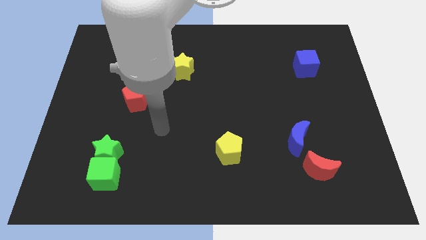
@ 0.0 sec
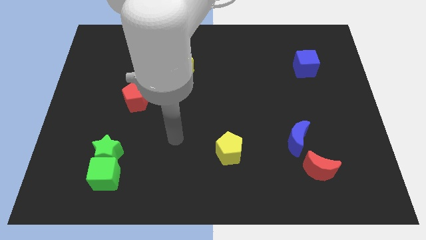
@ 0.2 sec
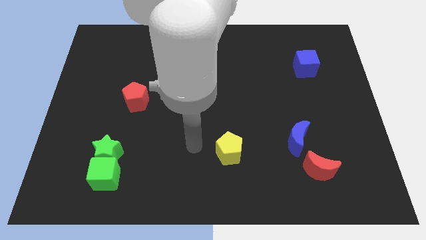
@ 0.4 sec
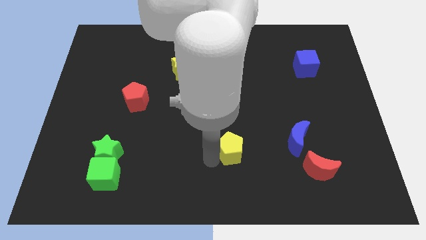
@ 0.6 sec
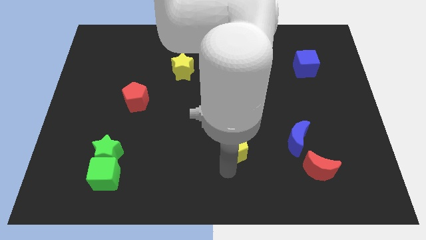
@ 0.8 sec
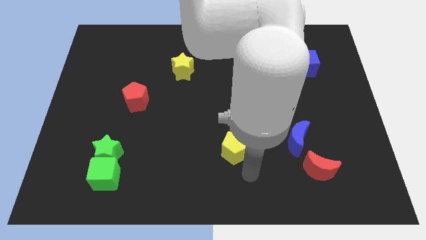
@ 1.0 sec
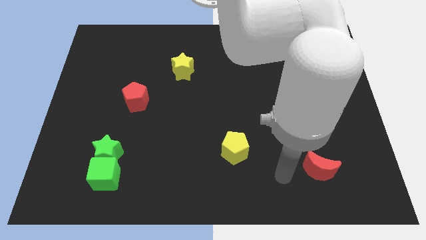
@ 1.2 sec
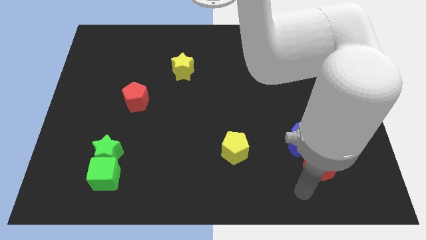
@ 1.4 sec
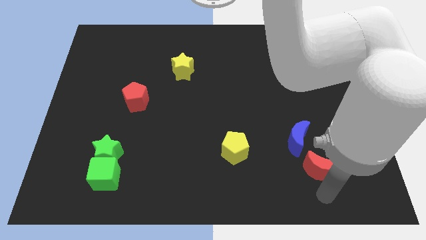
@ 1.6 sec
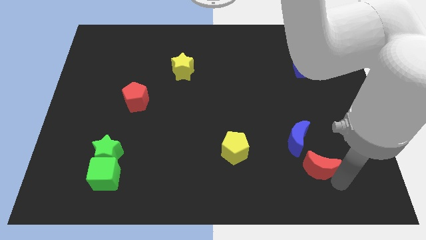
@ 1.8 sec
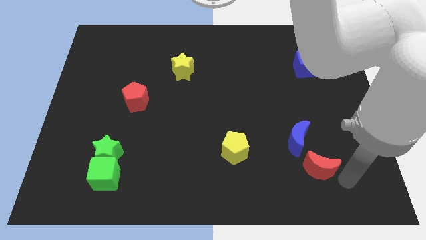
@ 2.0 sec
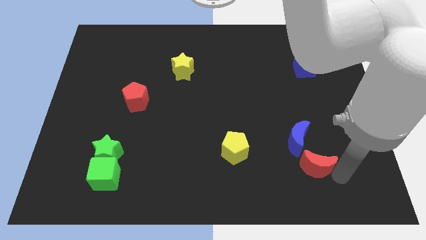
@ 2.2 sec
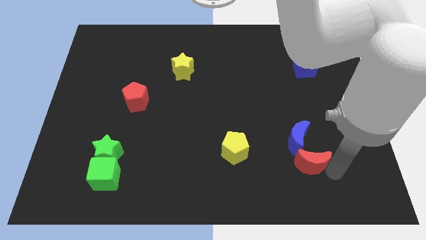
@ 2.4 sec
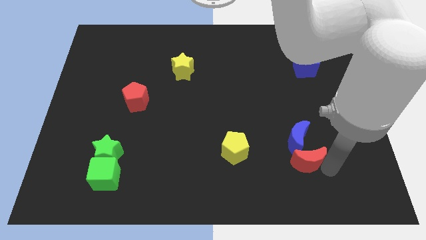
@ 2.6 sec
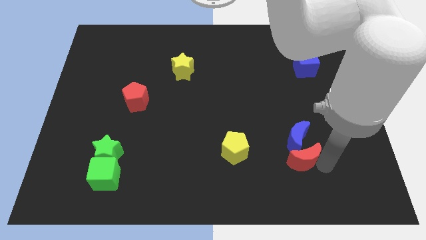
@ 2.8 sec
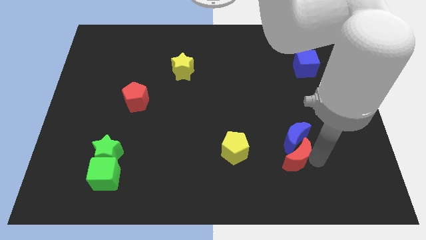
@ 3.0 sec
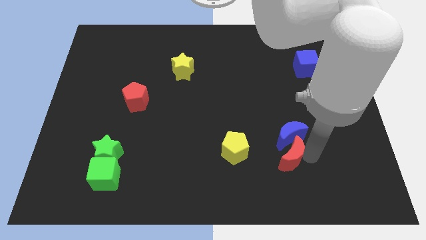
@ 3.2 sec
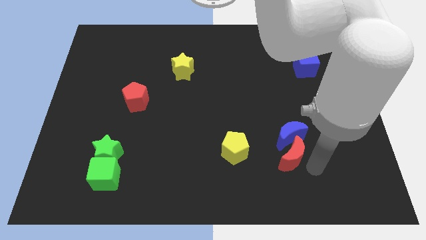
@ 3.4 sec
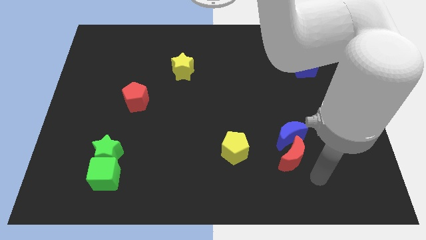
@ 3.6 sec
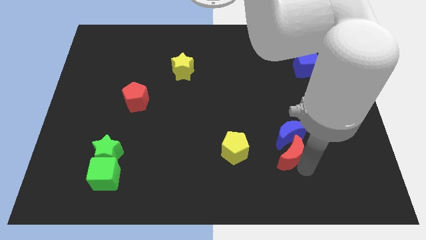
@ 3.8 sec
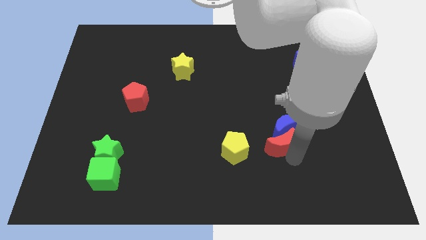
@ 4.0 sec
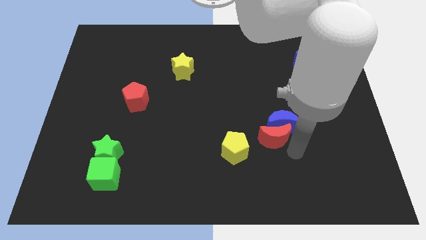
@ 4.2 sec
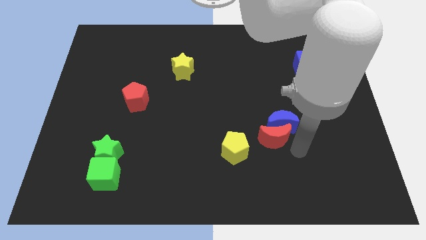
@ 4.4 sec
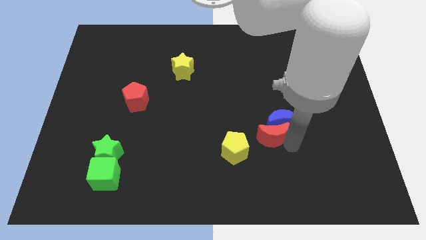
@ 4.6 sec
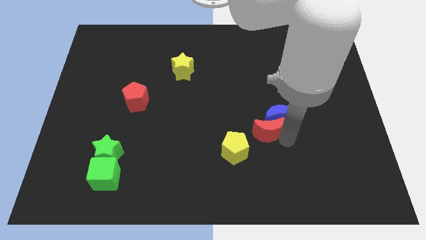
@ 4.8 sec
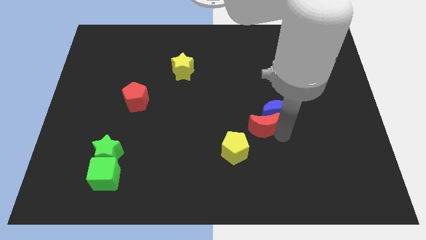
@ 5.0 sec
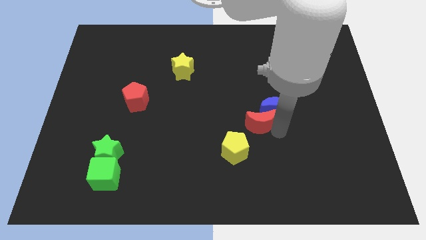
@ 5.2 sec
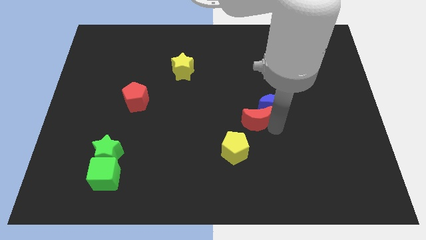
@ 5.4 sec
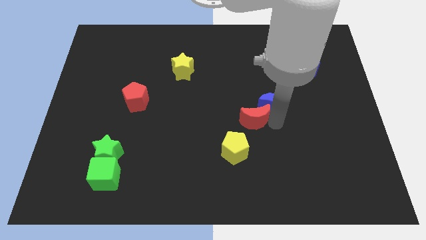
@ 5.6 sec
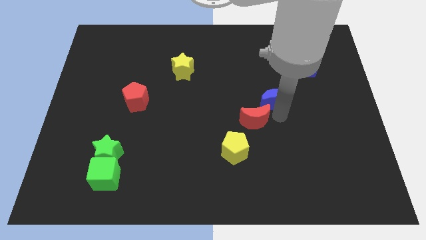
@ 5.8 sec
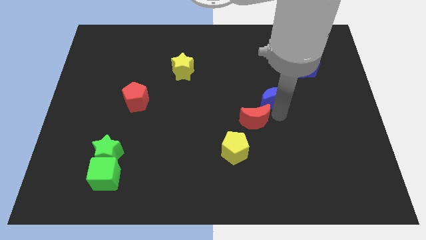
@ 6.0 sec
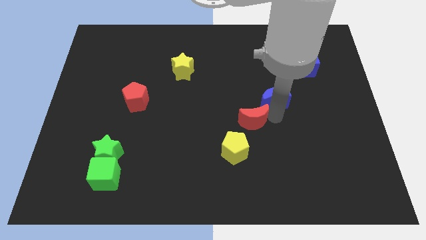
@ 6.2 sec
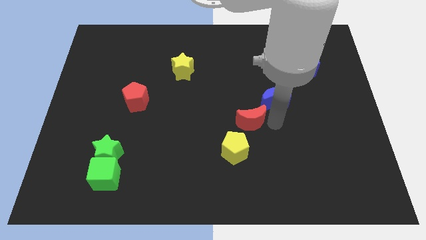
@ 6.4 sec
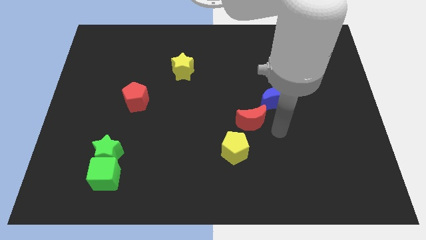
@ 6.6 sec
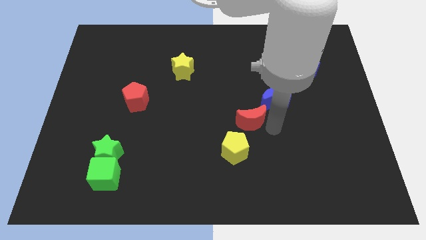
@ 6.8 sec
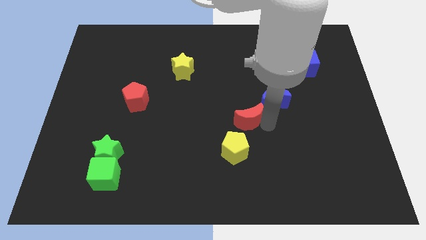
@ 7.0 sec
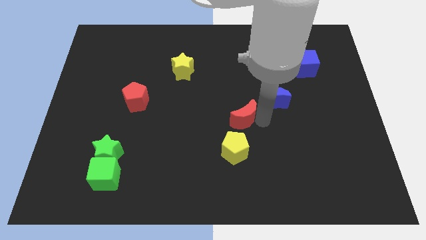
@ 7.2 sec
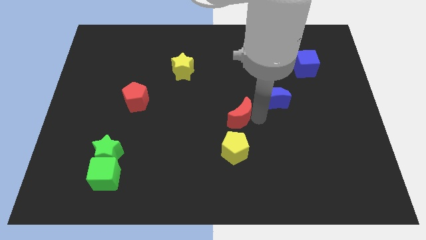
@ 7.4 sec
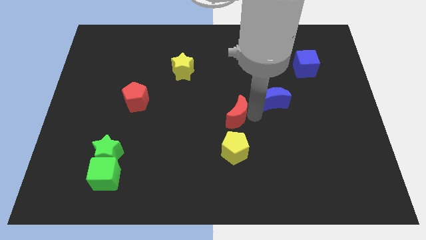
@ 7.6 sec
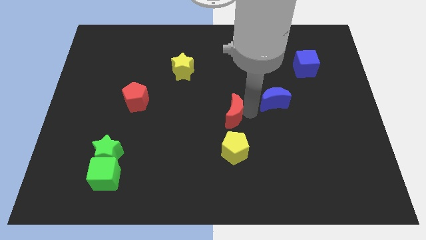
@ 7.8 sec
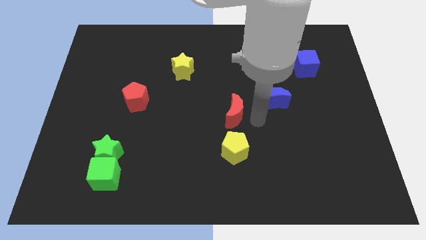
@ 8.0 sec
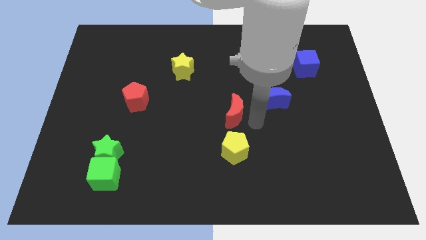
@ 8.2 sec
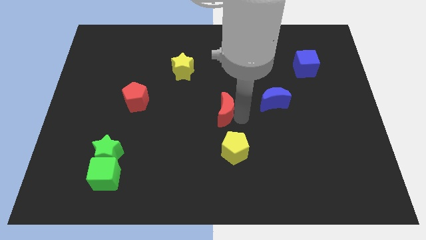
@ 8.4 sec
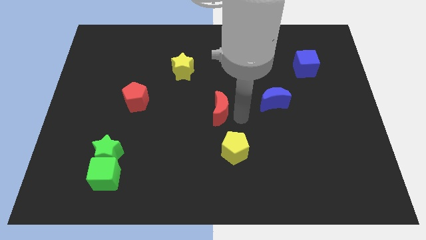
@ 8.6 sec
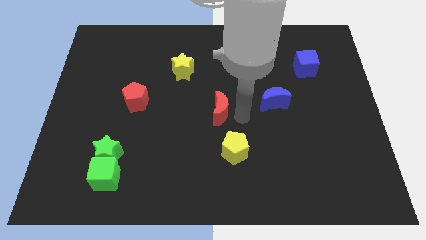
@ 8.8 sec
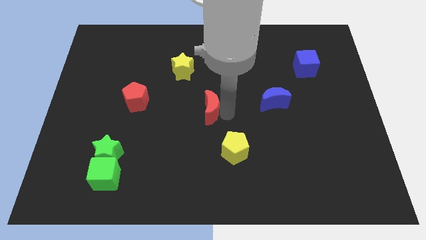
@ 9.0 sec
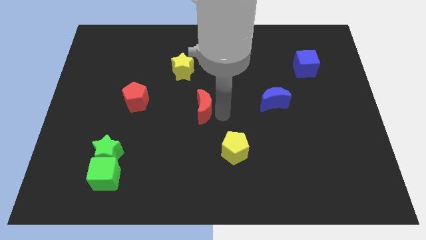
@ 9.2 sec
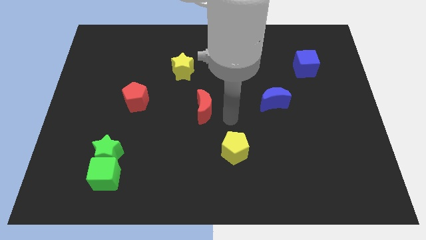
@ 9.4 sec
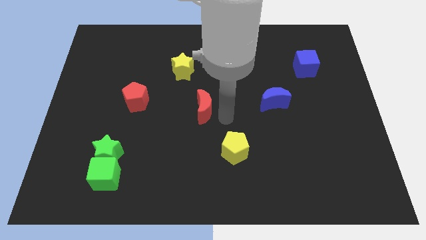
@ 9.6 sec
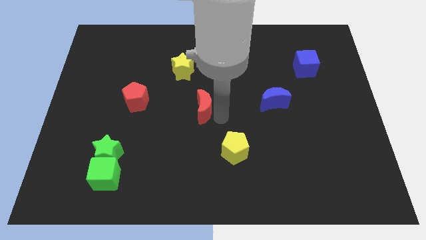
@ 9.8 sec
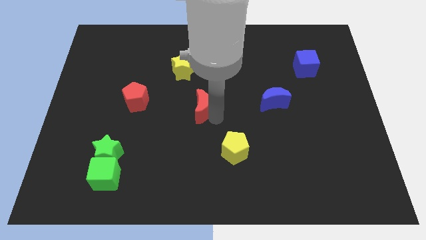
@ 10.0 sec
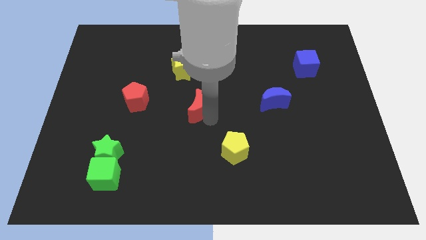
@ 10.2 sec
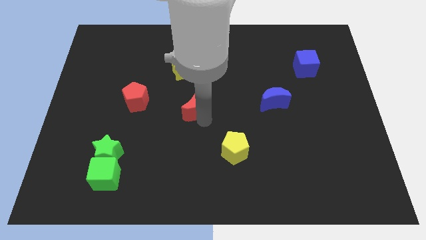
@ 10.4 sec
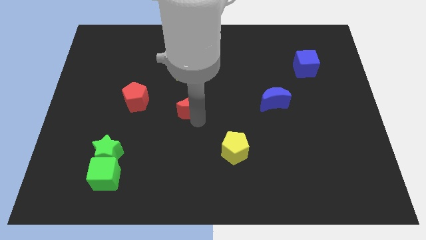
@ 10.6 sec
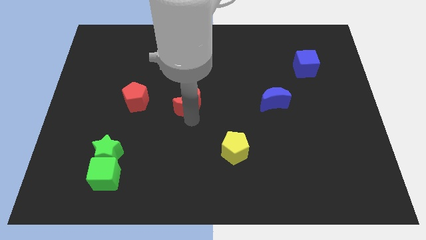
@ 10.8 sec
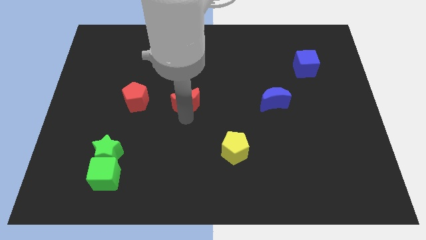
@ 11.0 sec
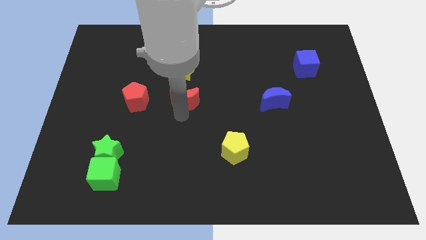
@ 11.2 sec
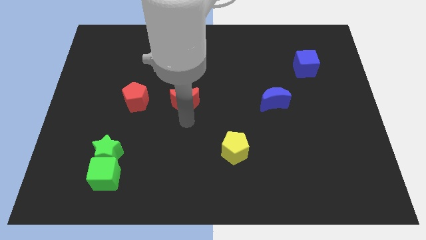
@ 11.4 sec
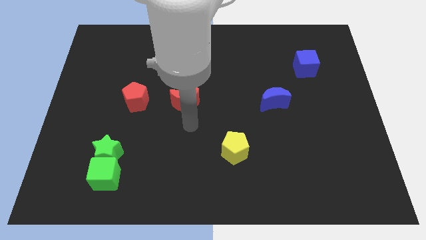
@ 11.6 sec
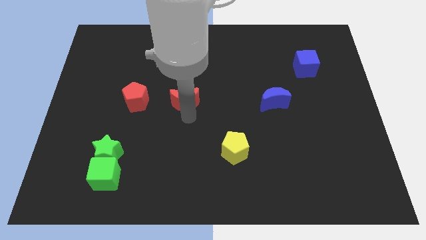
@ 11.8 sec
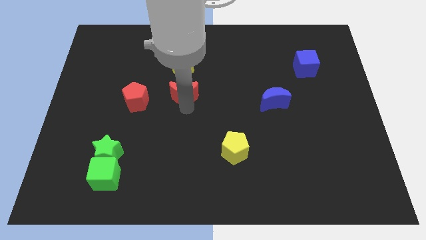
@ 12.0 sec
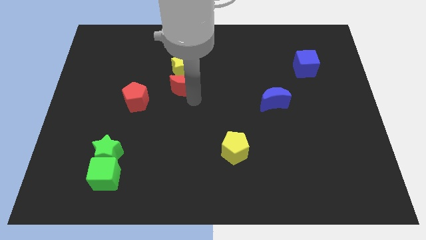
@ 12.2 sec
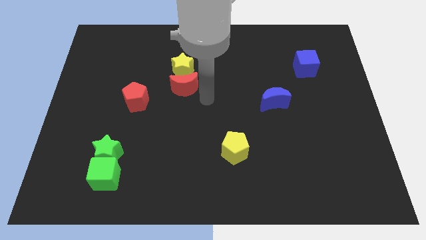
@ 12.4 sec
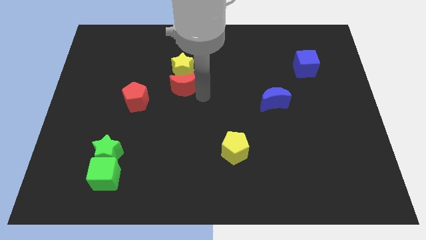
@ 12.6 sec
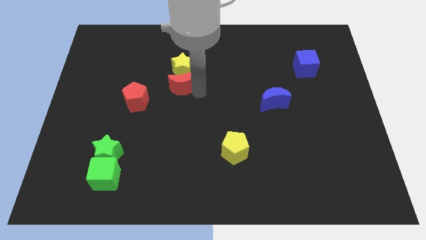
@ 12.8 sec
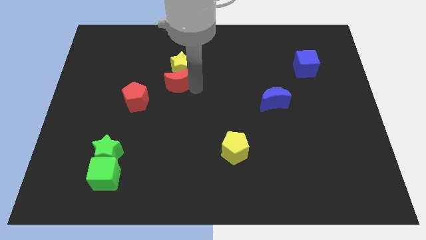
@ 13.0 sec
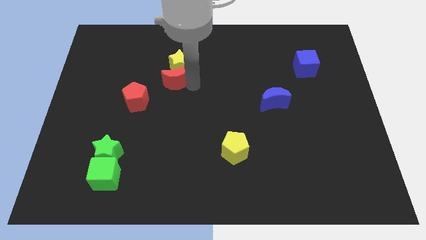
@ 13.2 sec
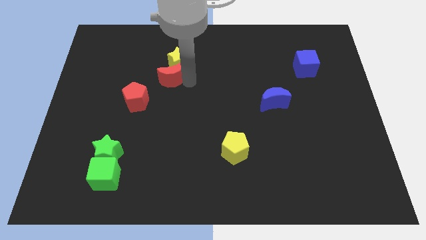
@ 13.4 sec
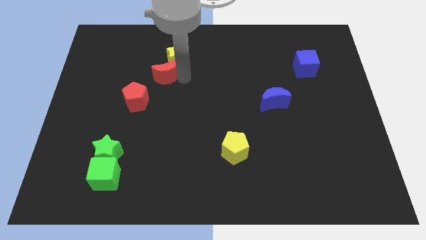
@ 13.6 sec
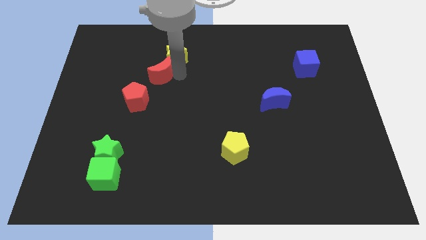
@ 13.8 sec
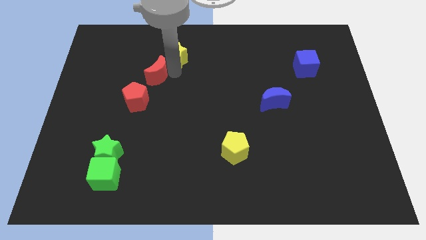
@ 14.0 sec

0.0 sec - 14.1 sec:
move the red moon to the top side of the red pentagon
